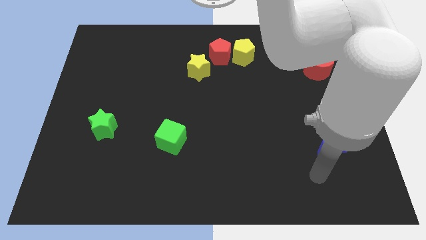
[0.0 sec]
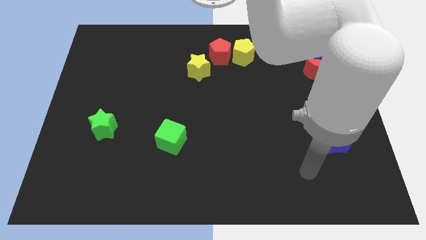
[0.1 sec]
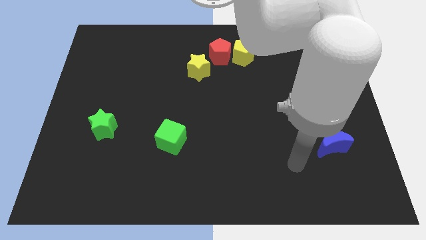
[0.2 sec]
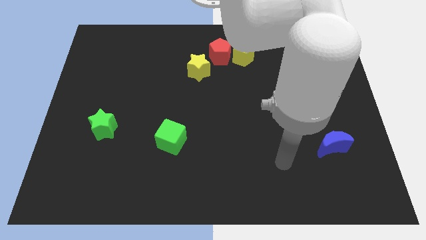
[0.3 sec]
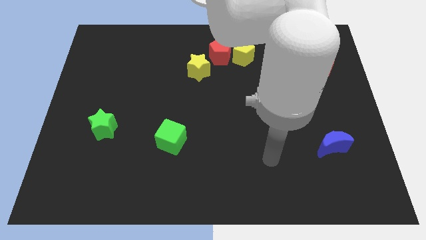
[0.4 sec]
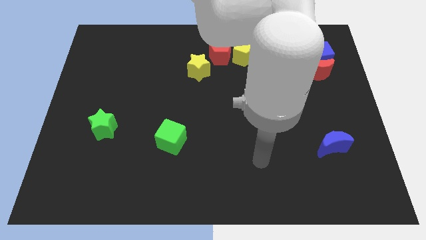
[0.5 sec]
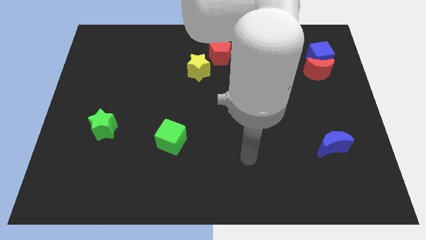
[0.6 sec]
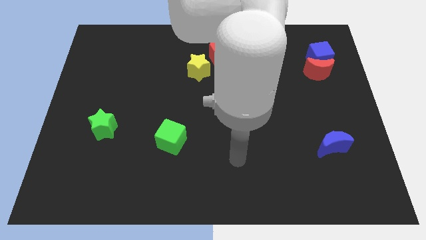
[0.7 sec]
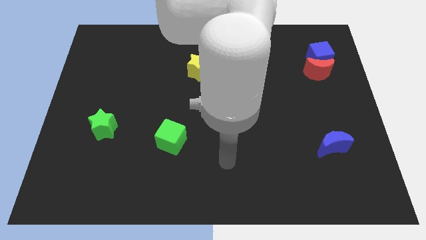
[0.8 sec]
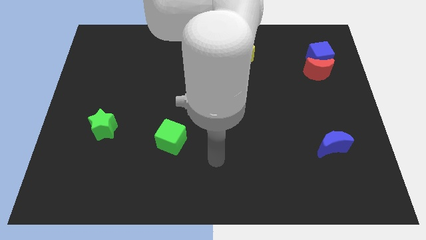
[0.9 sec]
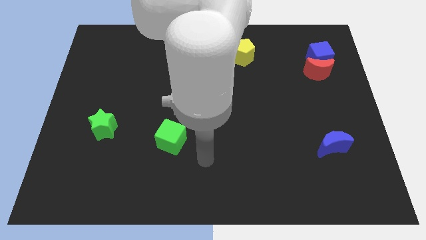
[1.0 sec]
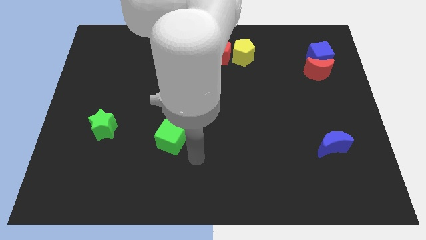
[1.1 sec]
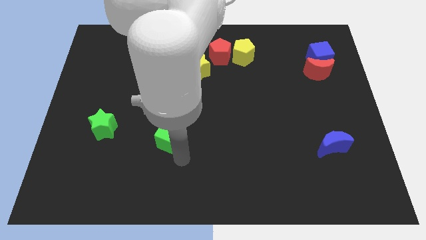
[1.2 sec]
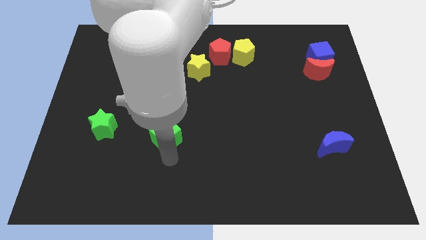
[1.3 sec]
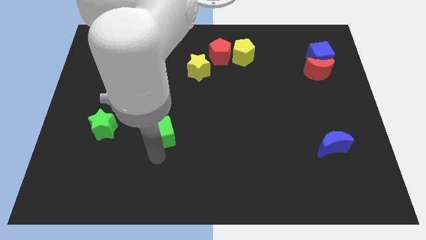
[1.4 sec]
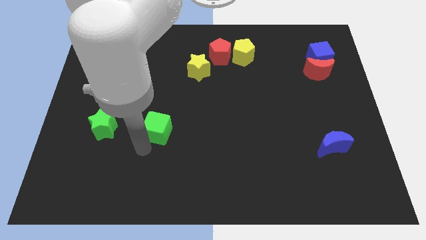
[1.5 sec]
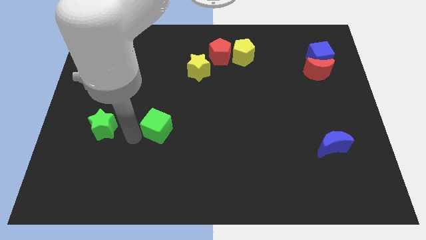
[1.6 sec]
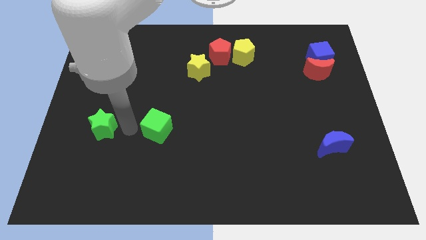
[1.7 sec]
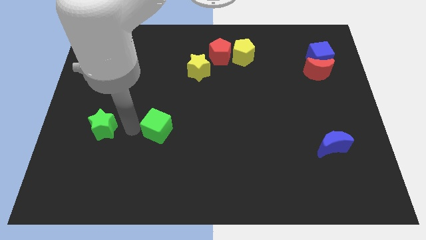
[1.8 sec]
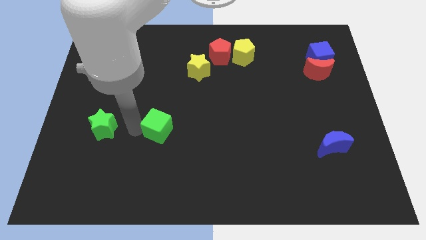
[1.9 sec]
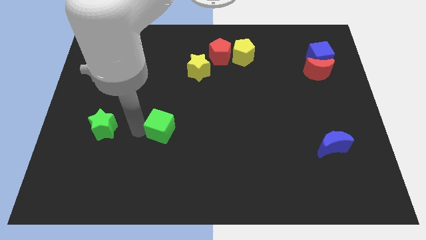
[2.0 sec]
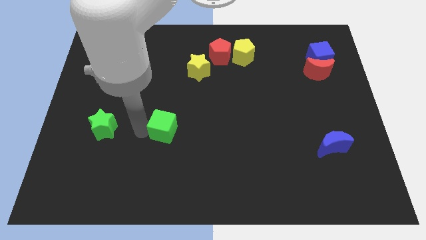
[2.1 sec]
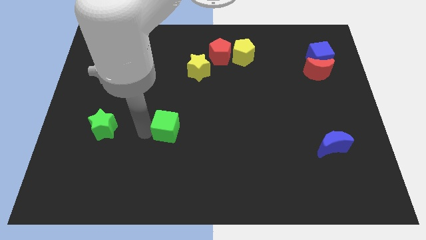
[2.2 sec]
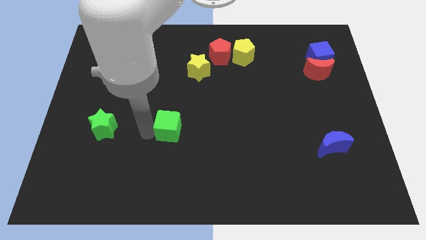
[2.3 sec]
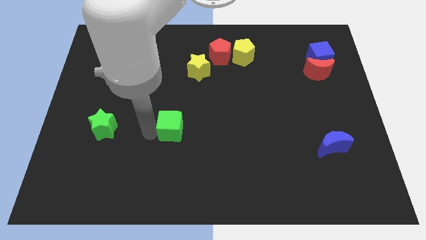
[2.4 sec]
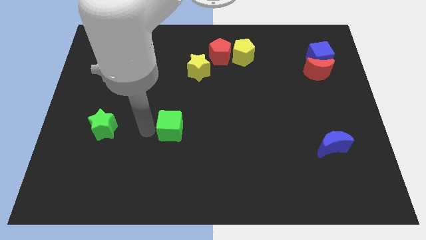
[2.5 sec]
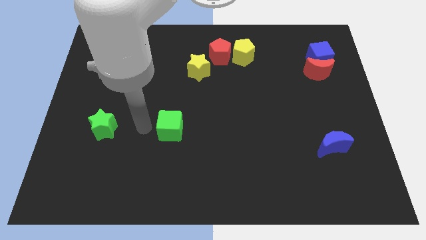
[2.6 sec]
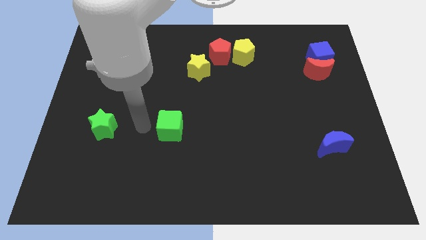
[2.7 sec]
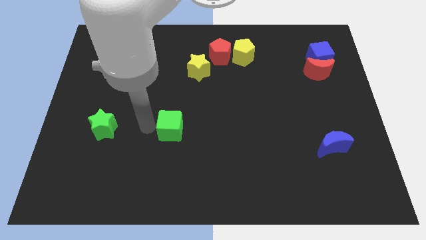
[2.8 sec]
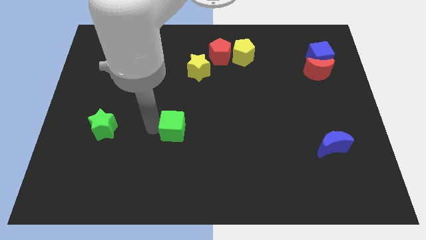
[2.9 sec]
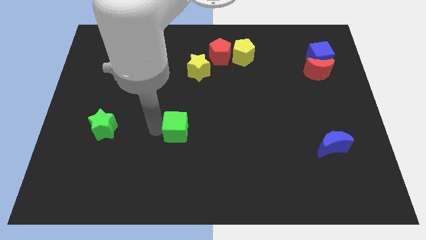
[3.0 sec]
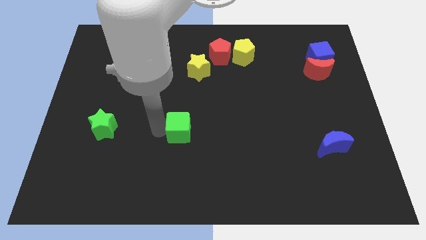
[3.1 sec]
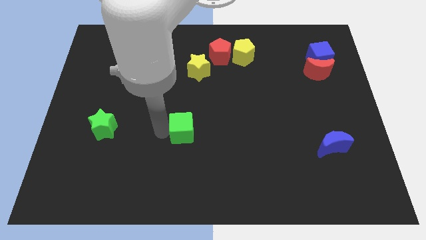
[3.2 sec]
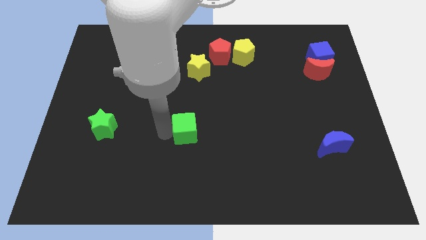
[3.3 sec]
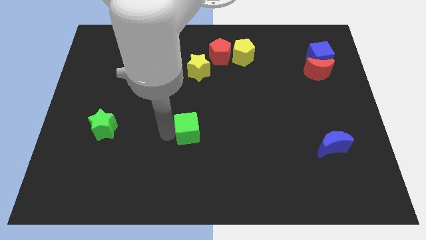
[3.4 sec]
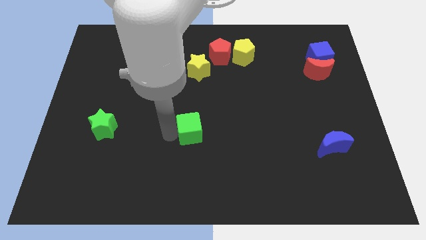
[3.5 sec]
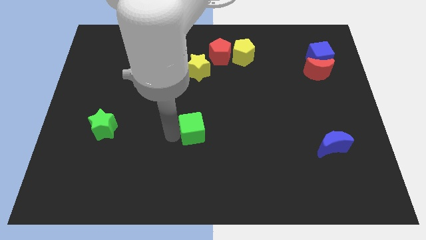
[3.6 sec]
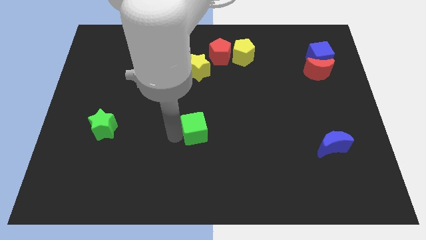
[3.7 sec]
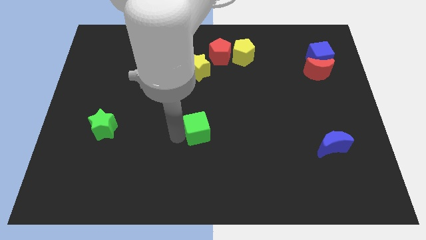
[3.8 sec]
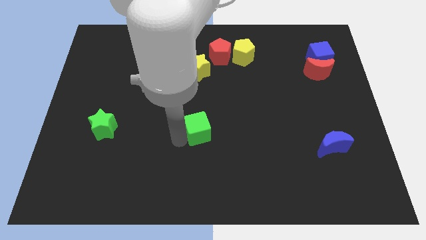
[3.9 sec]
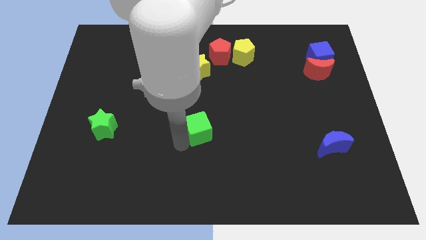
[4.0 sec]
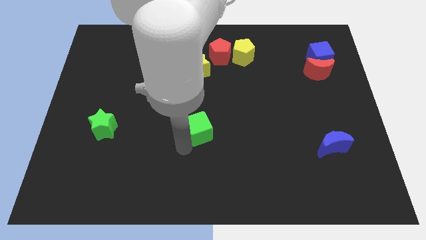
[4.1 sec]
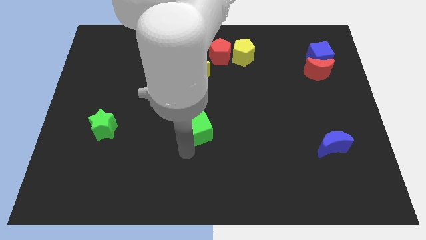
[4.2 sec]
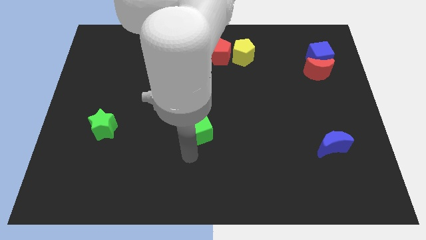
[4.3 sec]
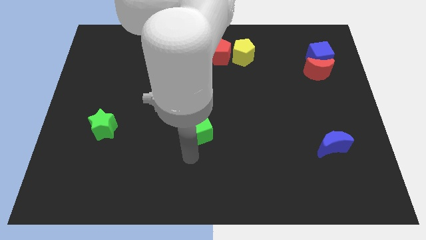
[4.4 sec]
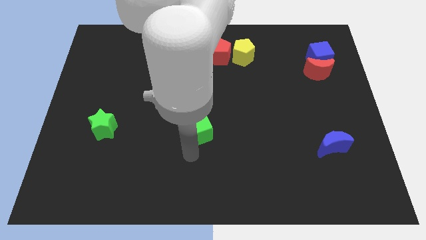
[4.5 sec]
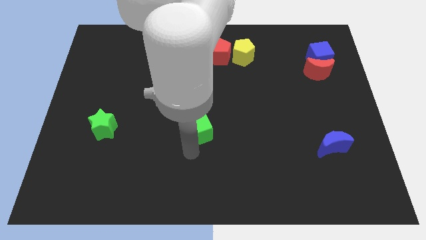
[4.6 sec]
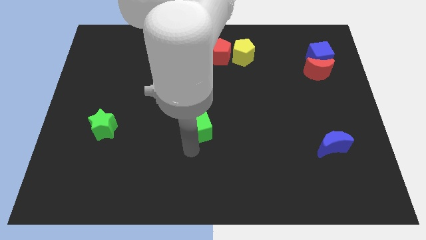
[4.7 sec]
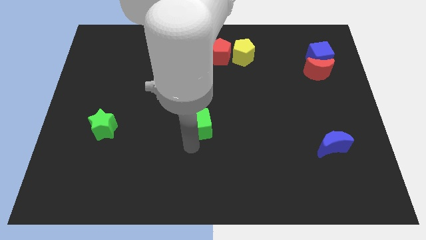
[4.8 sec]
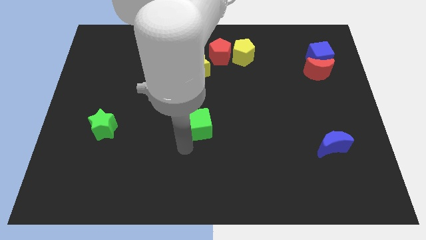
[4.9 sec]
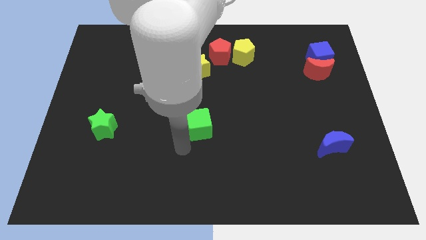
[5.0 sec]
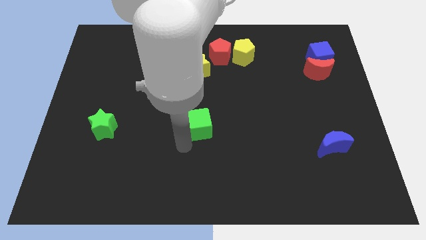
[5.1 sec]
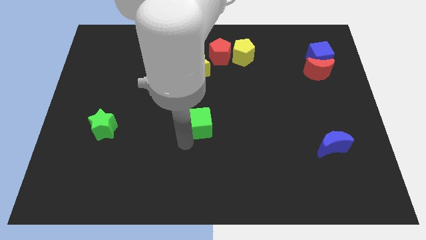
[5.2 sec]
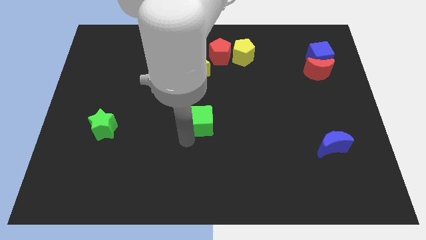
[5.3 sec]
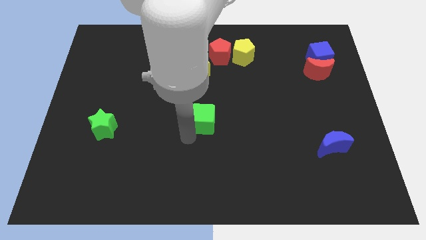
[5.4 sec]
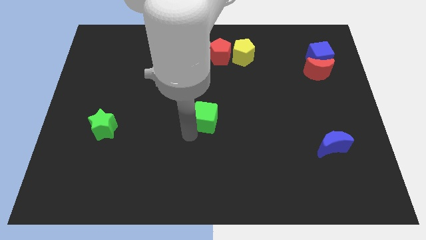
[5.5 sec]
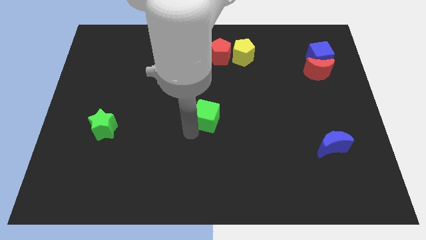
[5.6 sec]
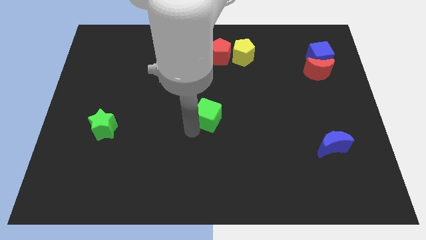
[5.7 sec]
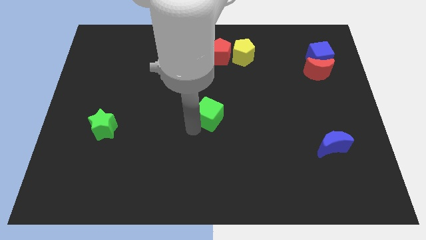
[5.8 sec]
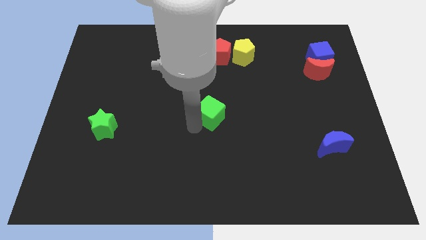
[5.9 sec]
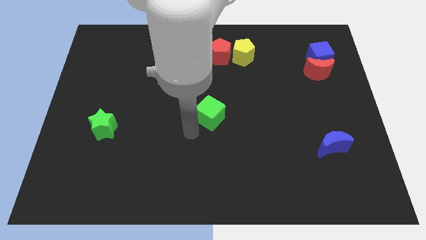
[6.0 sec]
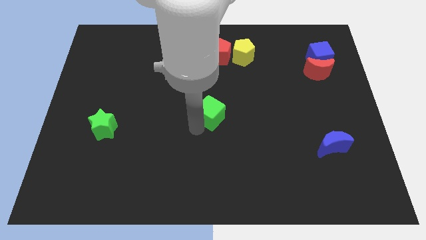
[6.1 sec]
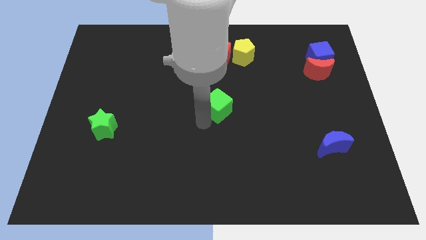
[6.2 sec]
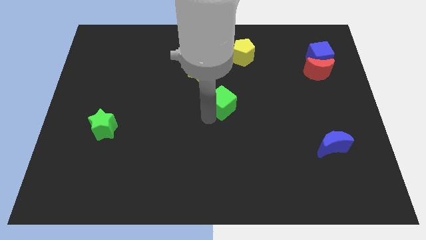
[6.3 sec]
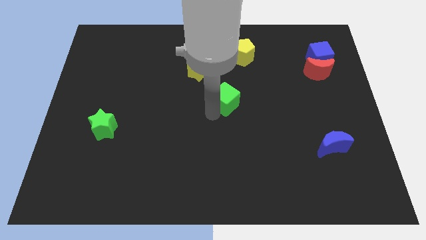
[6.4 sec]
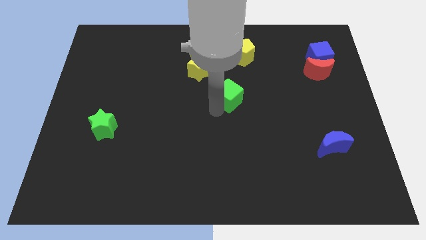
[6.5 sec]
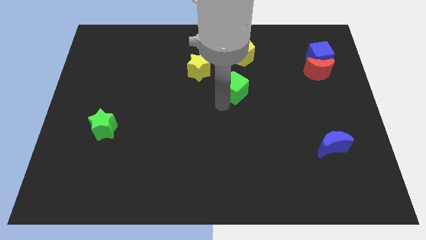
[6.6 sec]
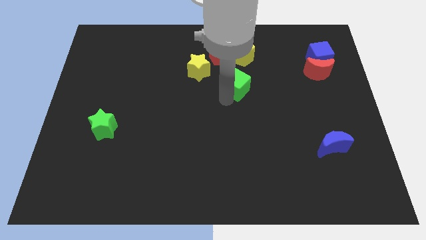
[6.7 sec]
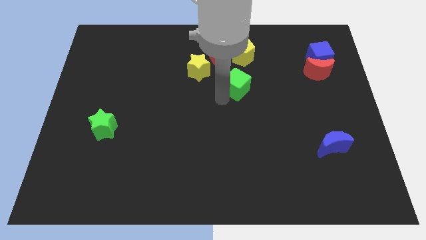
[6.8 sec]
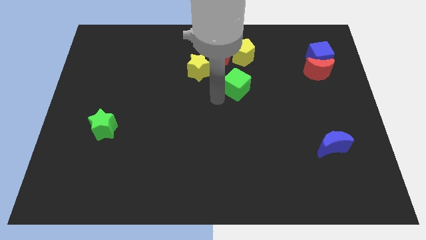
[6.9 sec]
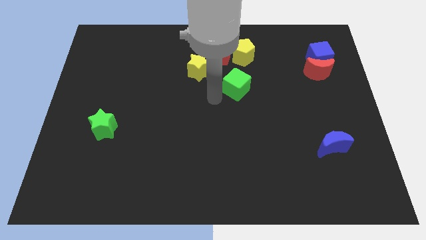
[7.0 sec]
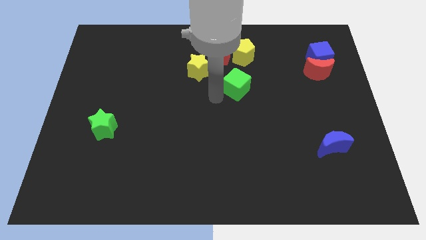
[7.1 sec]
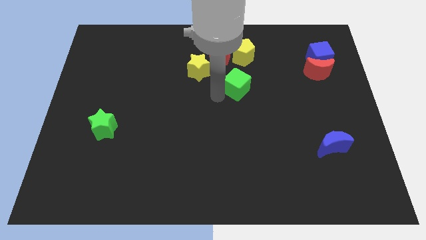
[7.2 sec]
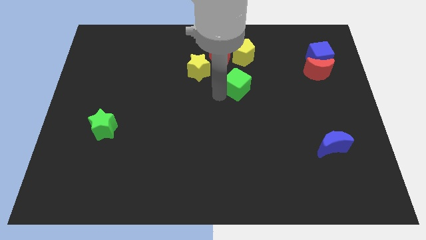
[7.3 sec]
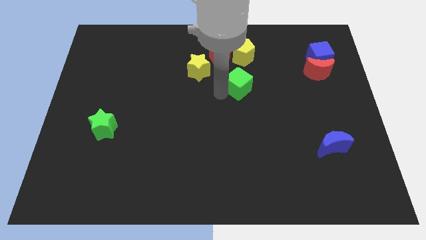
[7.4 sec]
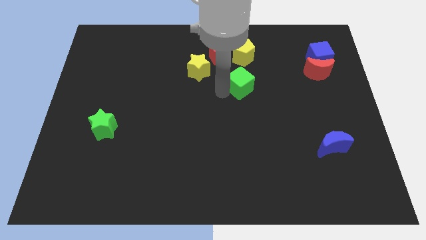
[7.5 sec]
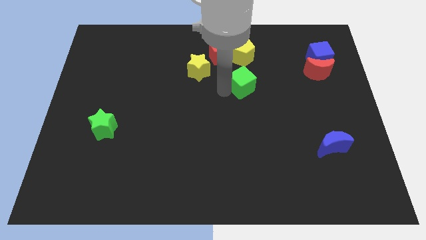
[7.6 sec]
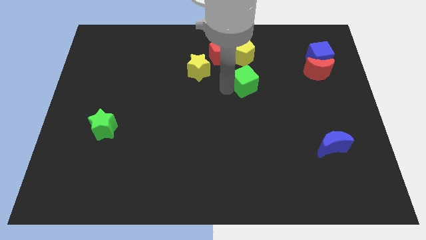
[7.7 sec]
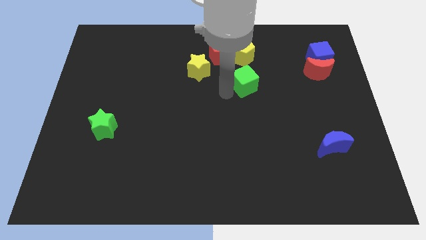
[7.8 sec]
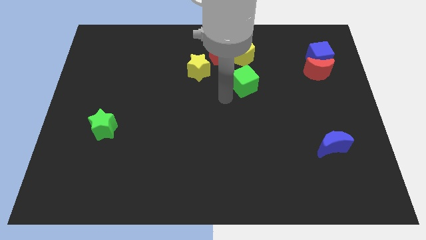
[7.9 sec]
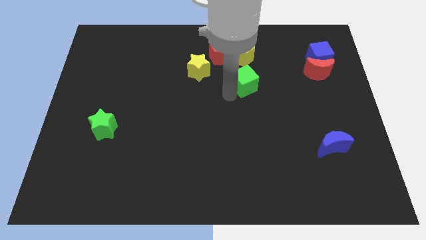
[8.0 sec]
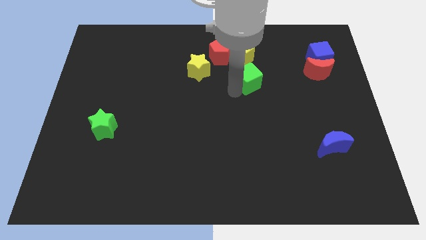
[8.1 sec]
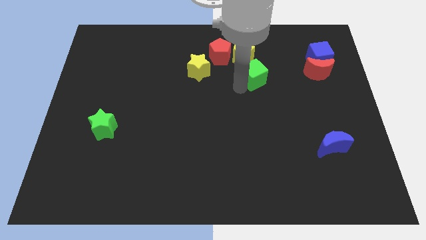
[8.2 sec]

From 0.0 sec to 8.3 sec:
push the green cube to the bottom right side of the yellow pentagon
